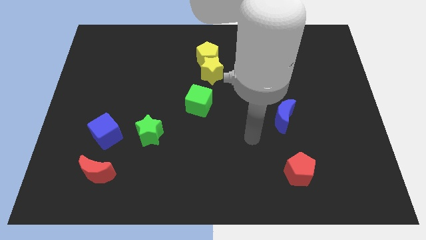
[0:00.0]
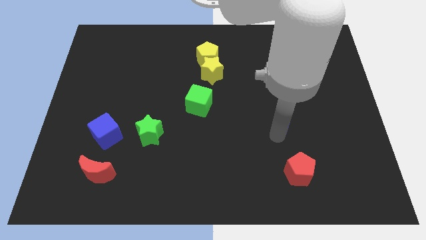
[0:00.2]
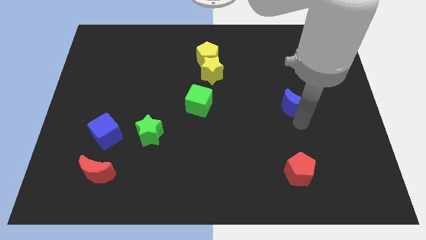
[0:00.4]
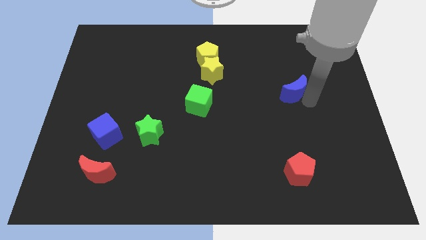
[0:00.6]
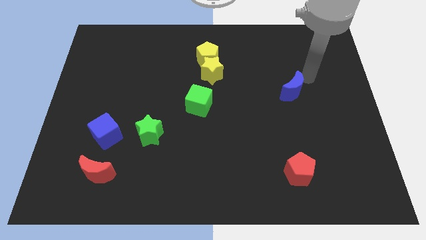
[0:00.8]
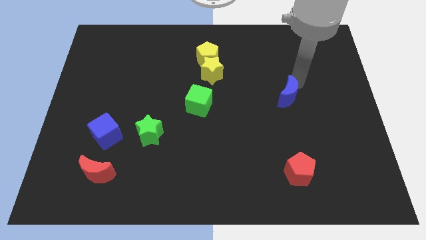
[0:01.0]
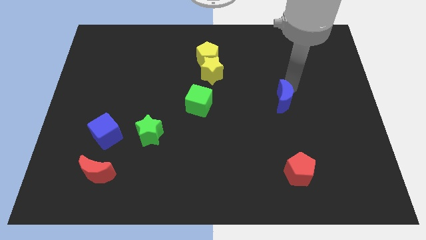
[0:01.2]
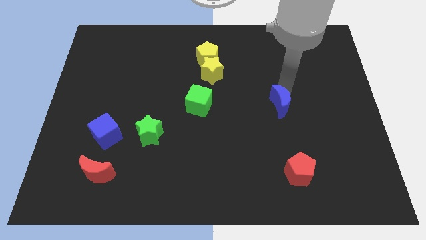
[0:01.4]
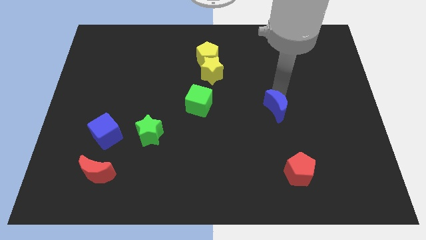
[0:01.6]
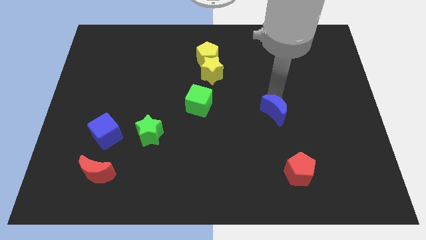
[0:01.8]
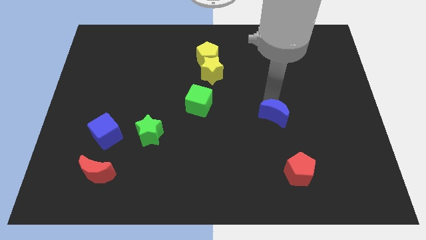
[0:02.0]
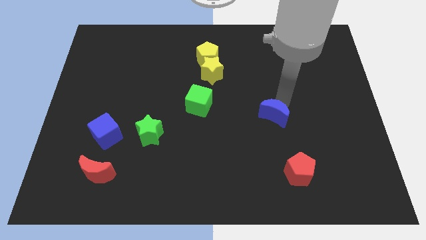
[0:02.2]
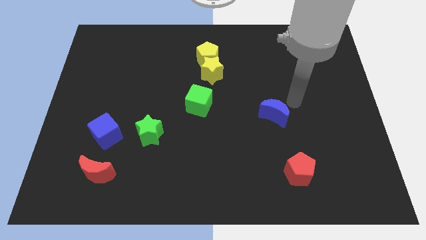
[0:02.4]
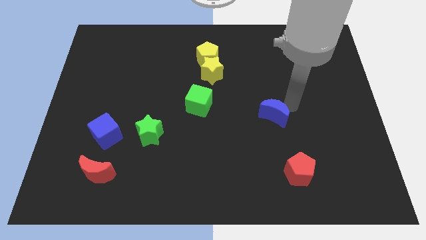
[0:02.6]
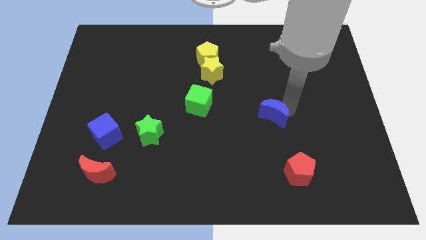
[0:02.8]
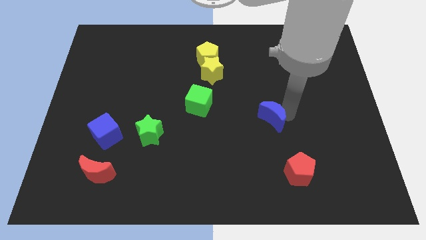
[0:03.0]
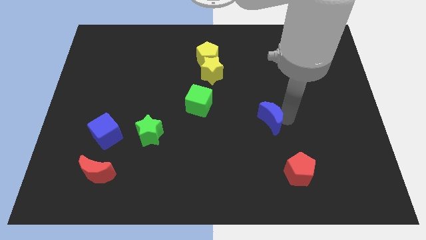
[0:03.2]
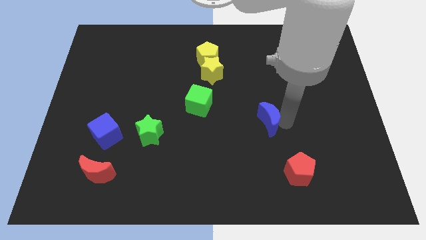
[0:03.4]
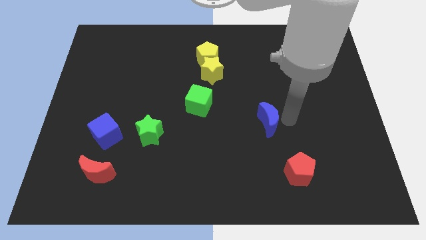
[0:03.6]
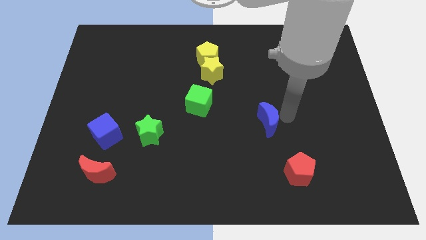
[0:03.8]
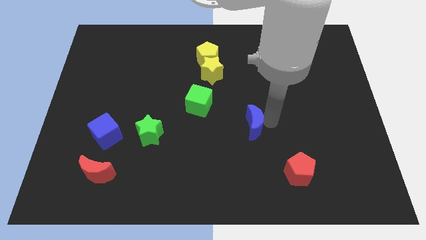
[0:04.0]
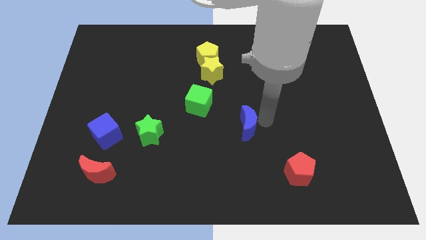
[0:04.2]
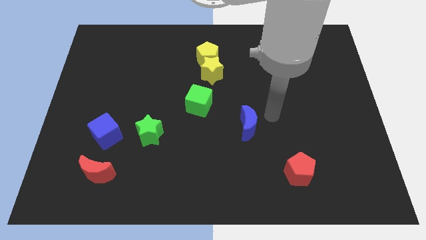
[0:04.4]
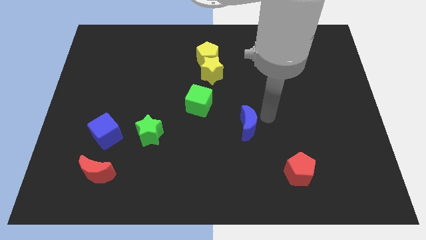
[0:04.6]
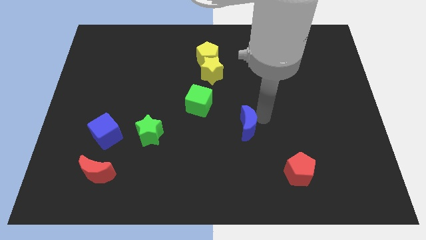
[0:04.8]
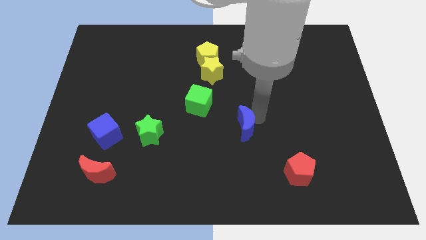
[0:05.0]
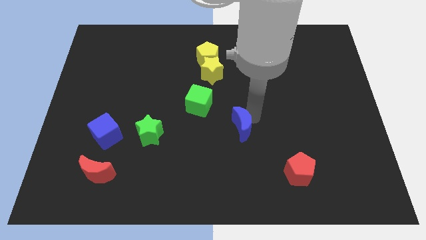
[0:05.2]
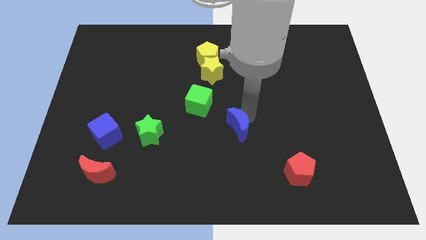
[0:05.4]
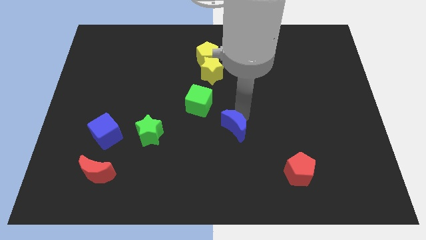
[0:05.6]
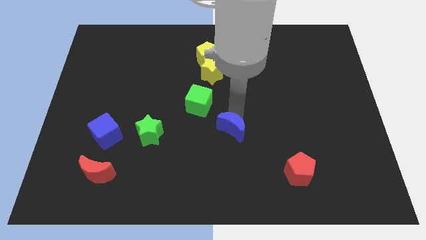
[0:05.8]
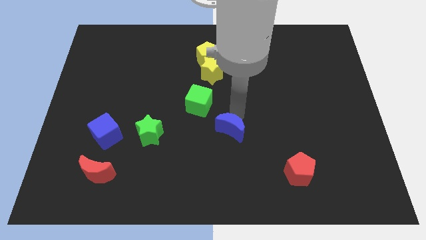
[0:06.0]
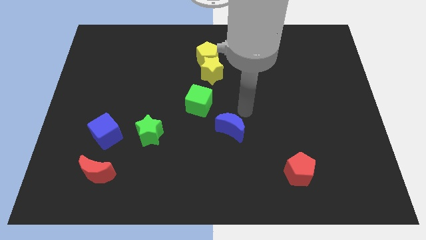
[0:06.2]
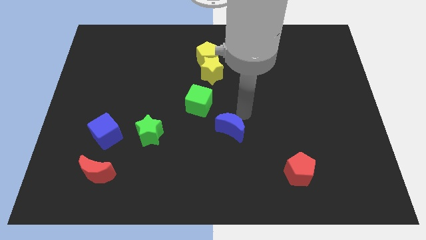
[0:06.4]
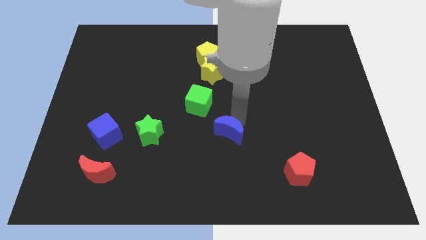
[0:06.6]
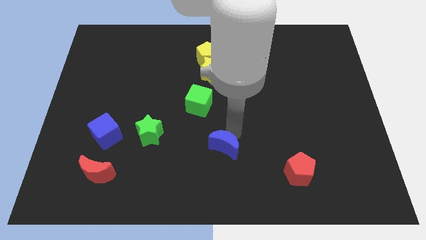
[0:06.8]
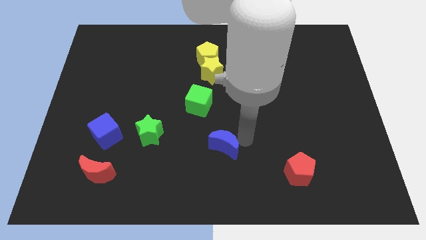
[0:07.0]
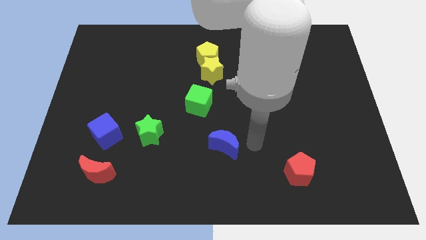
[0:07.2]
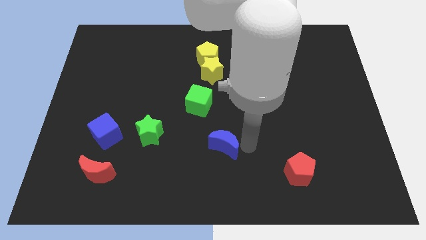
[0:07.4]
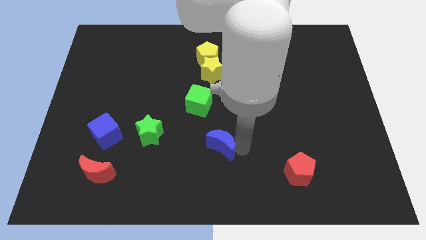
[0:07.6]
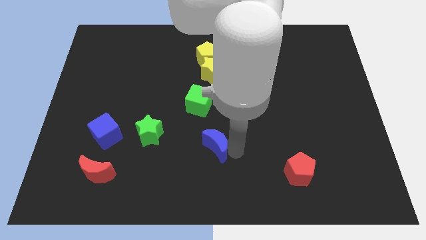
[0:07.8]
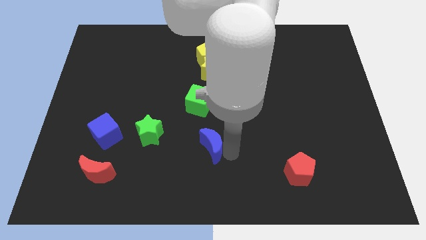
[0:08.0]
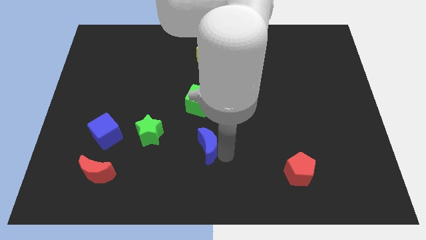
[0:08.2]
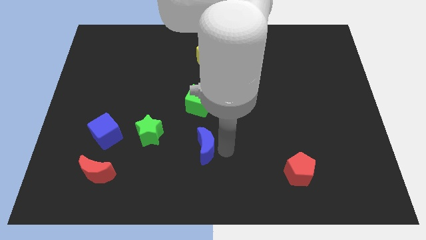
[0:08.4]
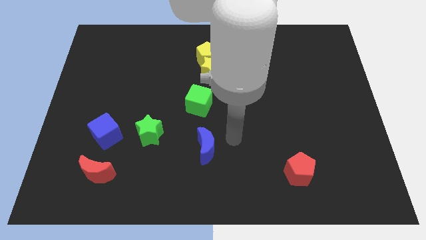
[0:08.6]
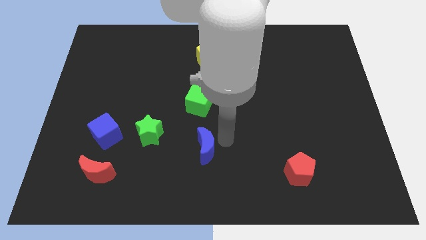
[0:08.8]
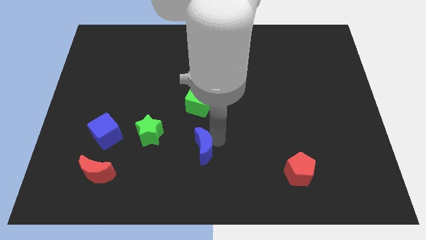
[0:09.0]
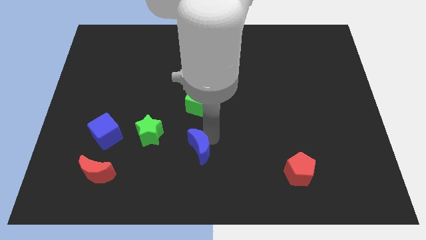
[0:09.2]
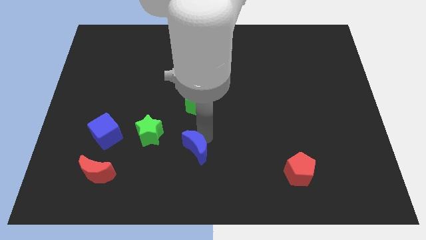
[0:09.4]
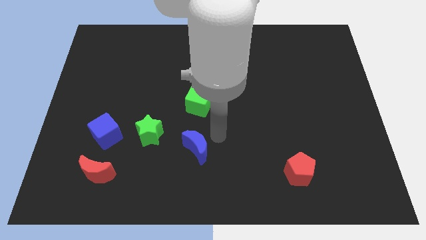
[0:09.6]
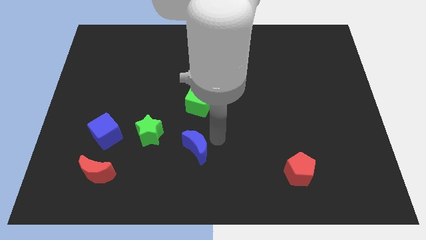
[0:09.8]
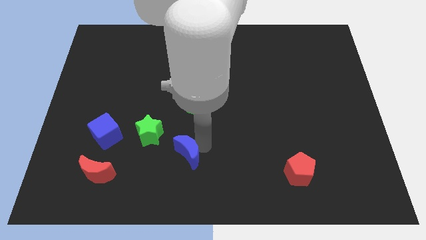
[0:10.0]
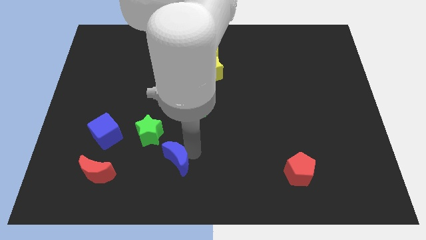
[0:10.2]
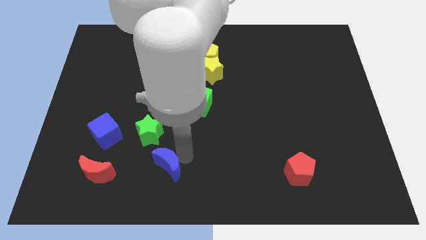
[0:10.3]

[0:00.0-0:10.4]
move the blue moon to the bottom side of the green star

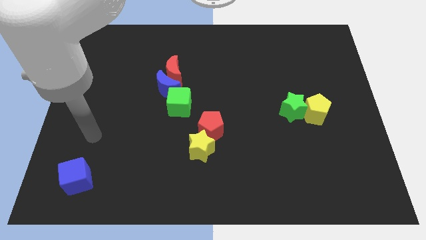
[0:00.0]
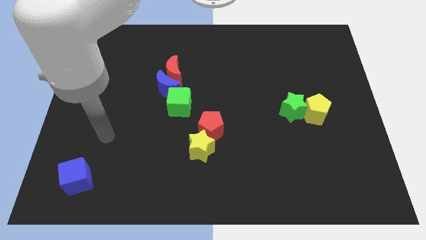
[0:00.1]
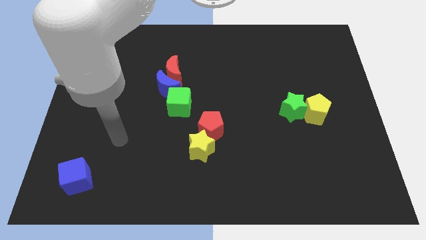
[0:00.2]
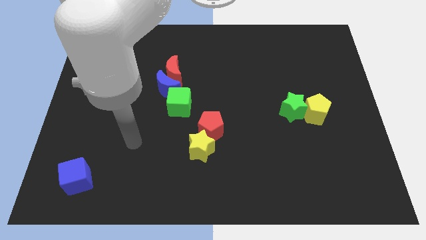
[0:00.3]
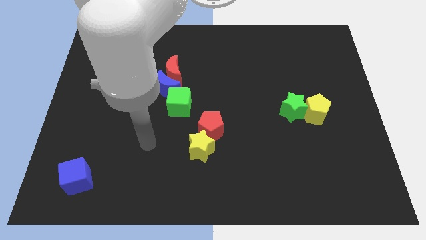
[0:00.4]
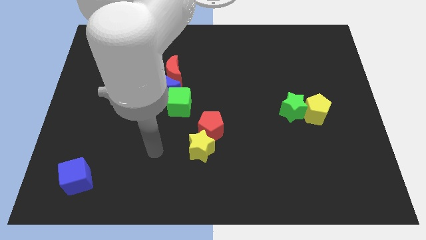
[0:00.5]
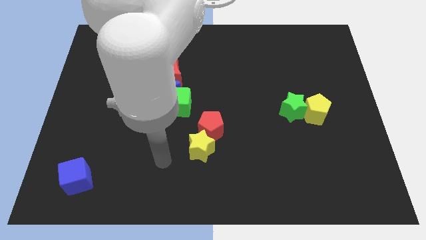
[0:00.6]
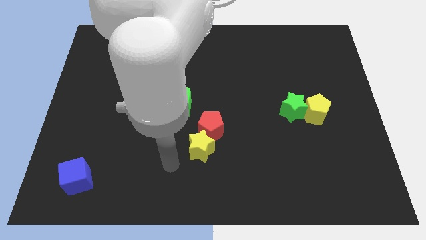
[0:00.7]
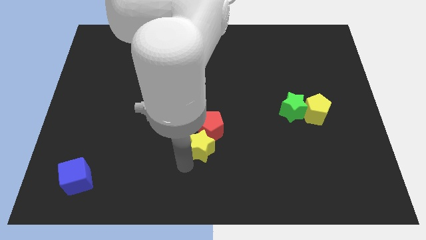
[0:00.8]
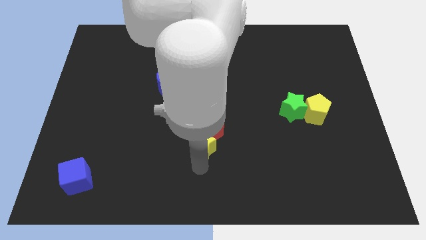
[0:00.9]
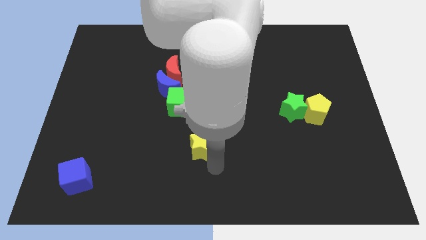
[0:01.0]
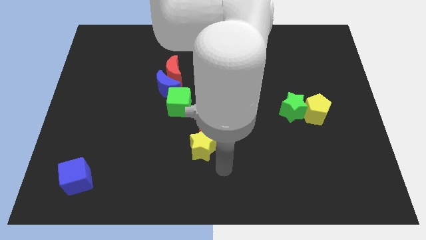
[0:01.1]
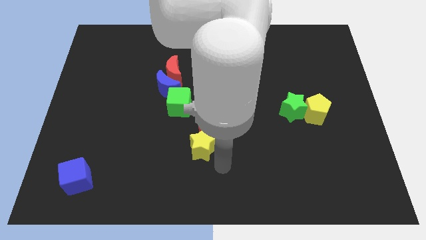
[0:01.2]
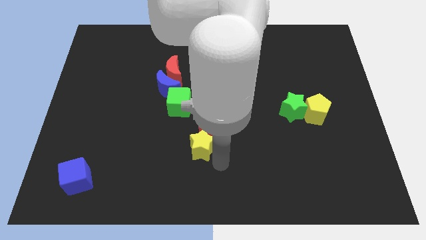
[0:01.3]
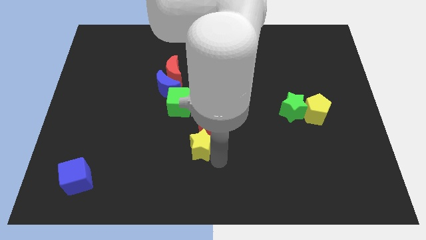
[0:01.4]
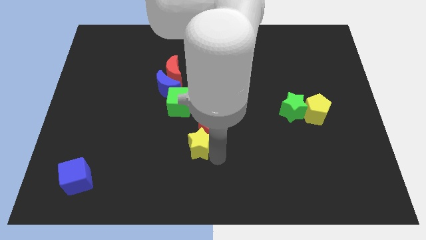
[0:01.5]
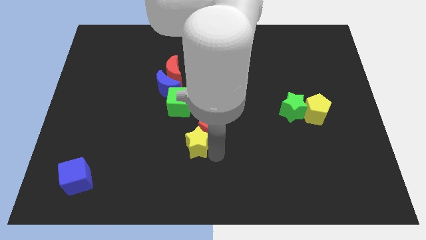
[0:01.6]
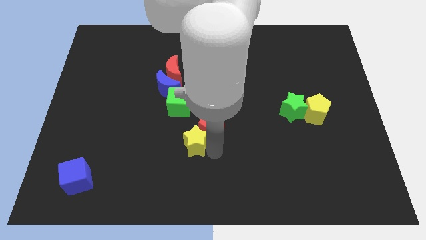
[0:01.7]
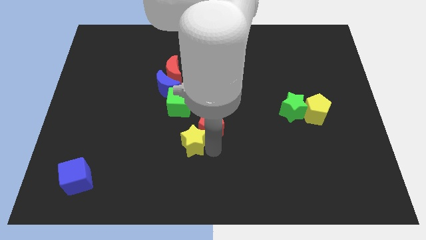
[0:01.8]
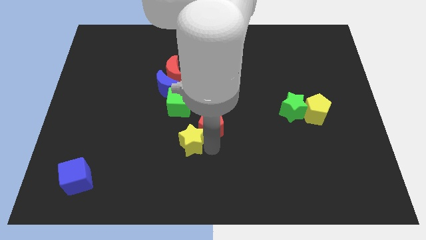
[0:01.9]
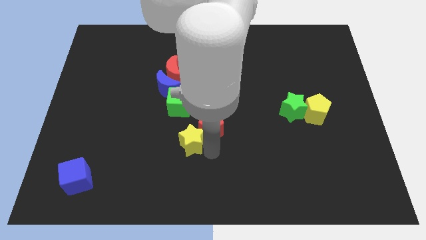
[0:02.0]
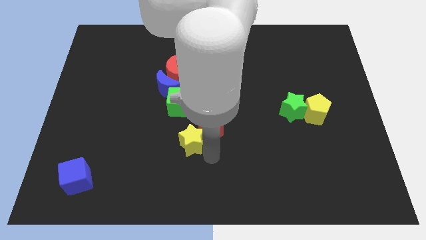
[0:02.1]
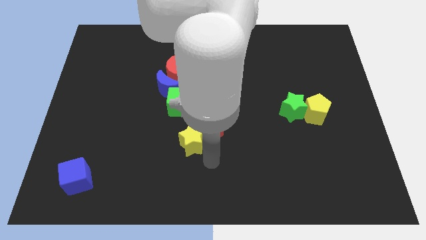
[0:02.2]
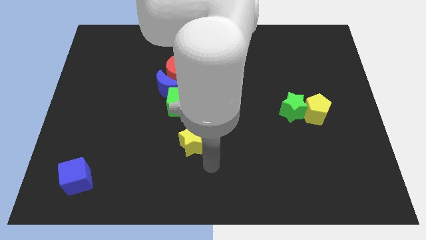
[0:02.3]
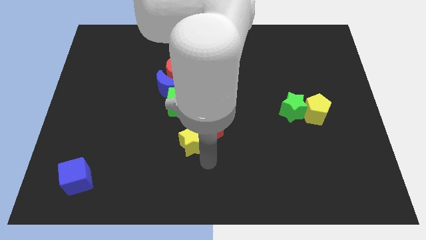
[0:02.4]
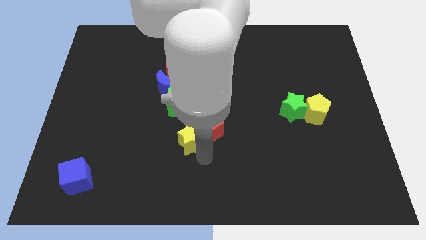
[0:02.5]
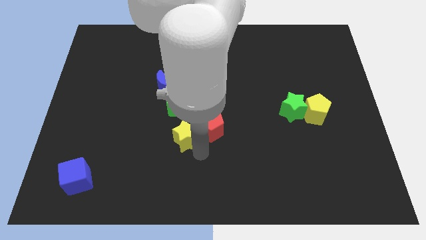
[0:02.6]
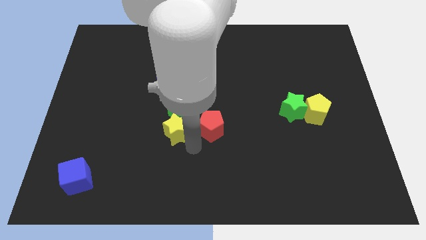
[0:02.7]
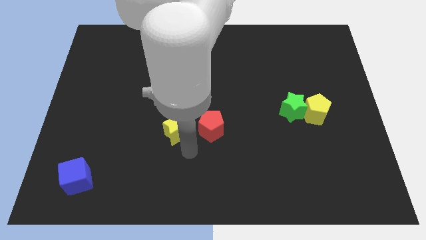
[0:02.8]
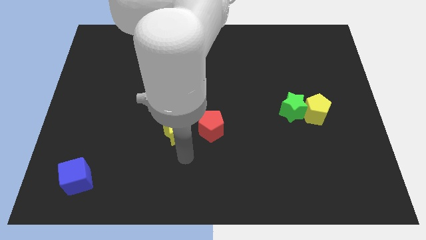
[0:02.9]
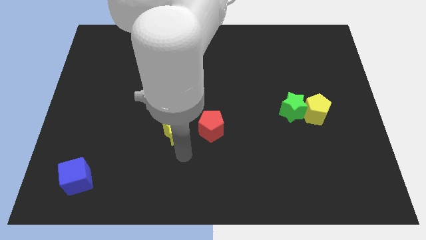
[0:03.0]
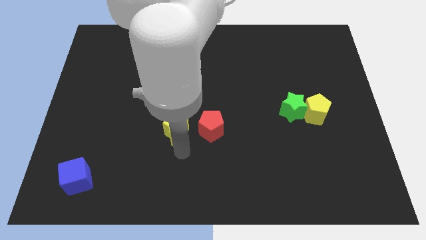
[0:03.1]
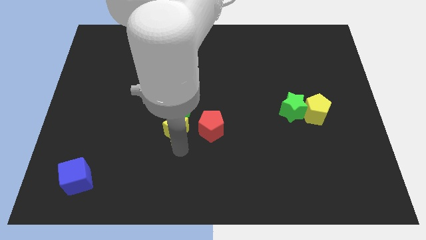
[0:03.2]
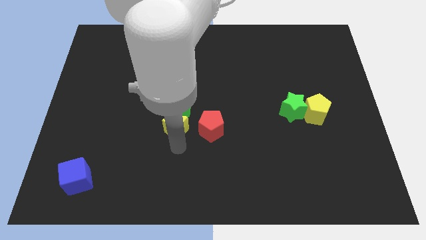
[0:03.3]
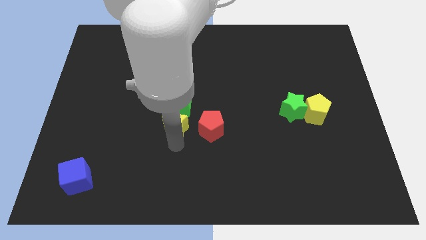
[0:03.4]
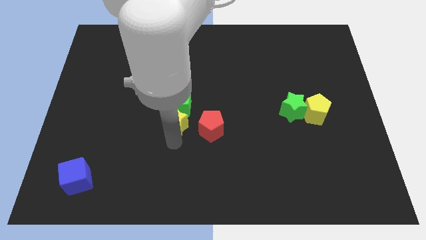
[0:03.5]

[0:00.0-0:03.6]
push the yellow star to the bottom side of the red moon
